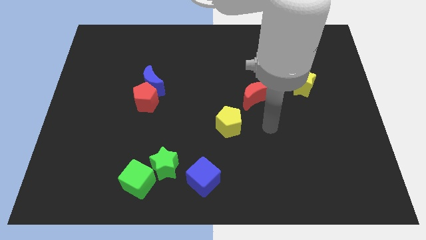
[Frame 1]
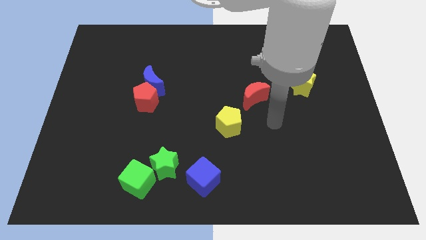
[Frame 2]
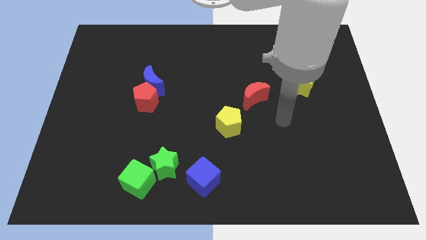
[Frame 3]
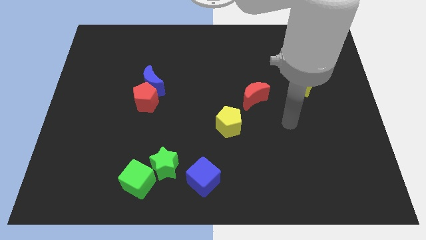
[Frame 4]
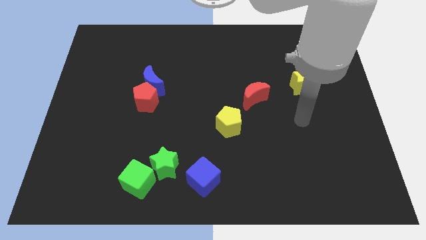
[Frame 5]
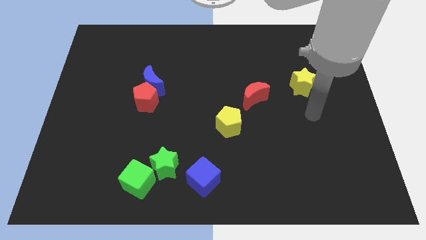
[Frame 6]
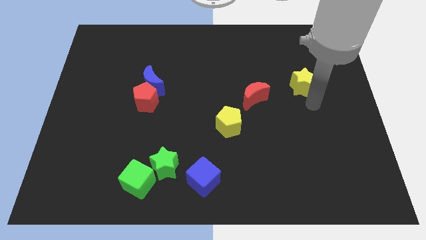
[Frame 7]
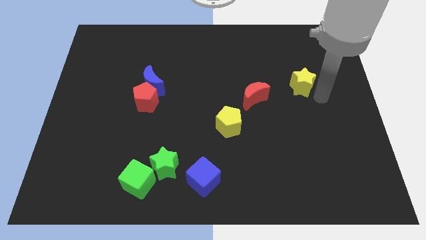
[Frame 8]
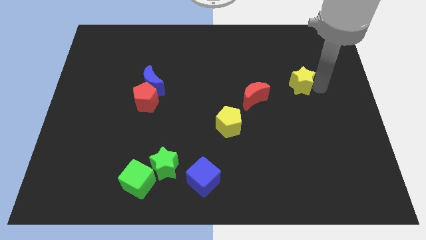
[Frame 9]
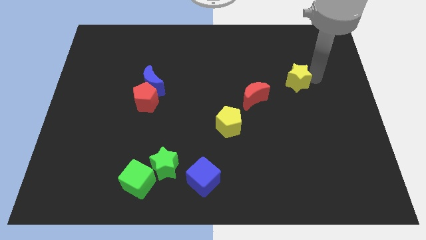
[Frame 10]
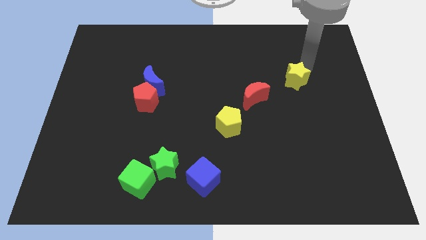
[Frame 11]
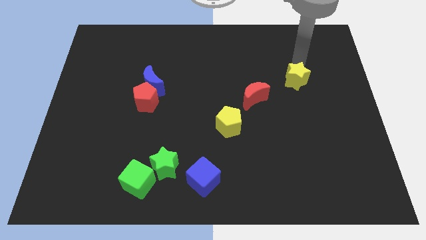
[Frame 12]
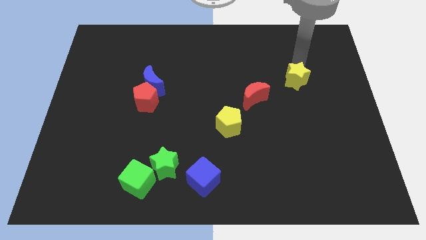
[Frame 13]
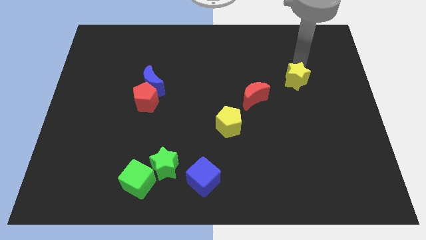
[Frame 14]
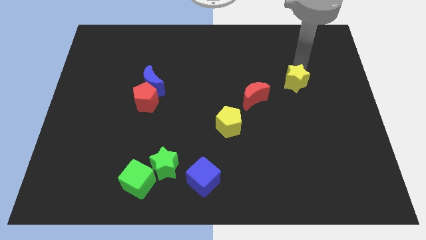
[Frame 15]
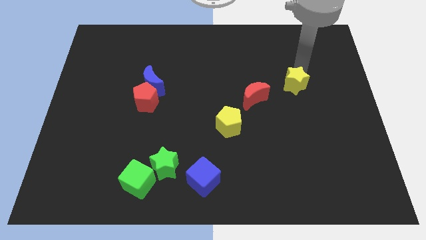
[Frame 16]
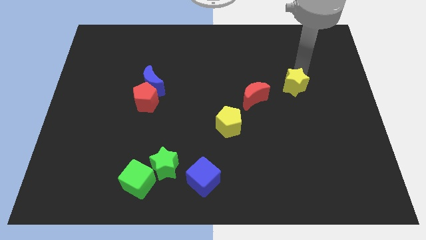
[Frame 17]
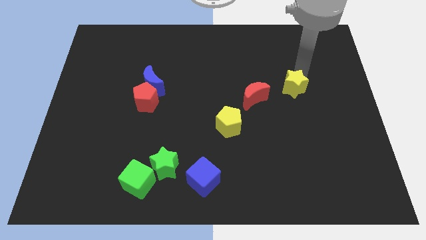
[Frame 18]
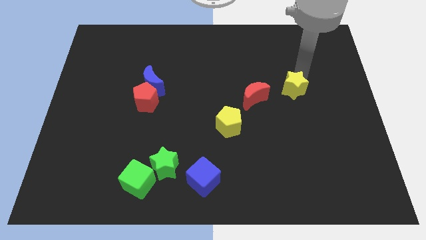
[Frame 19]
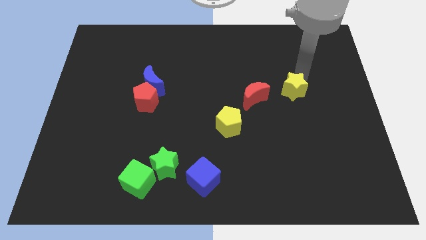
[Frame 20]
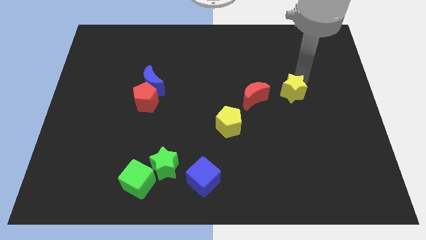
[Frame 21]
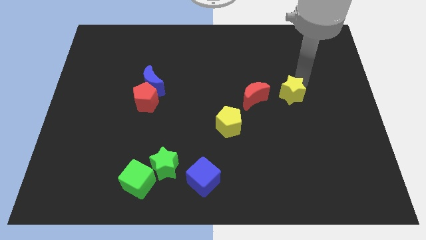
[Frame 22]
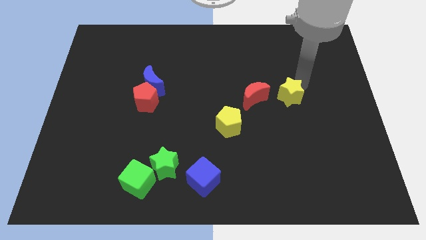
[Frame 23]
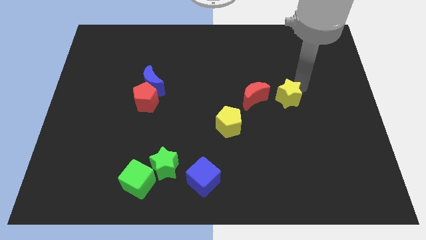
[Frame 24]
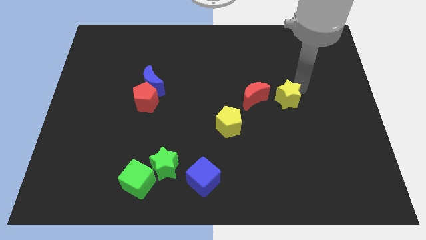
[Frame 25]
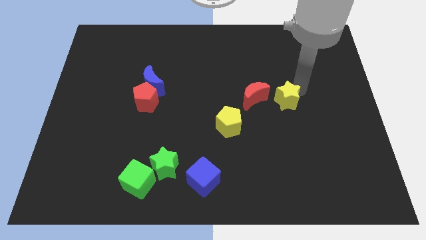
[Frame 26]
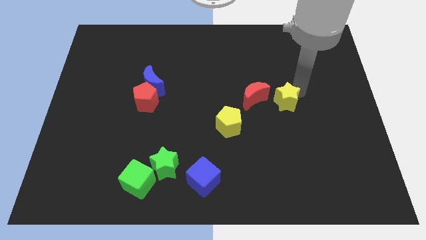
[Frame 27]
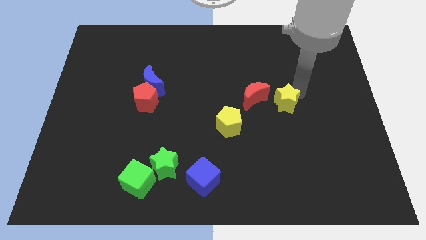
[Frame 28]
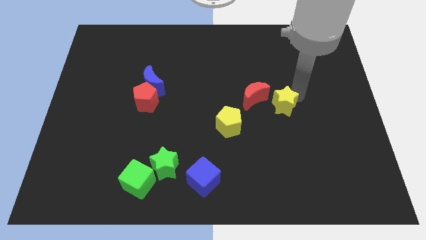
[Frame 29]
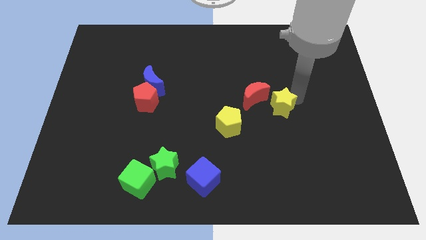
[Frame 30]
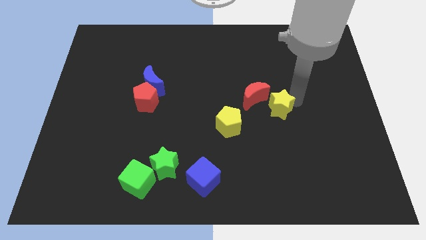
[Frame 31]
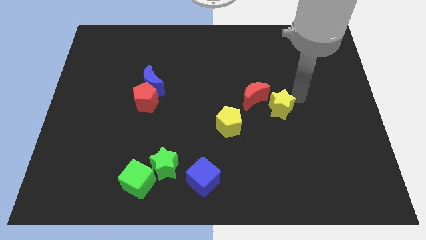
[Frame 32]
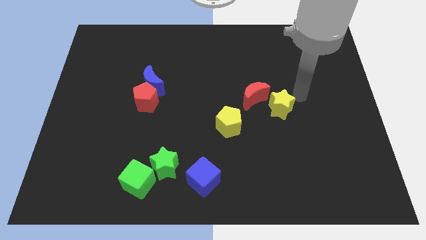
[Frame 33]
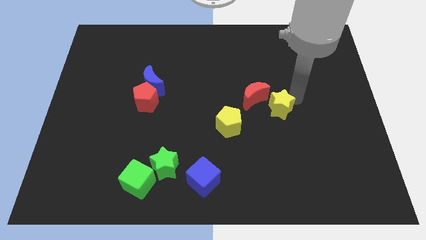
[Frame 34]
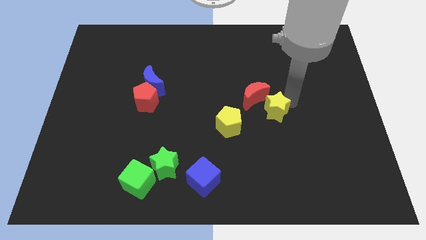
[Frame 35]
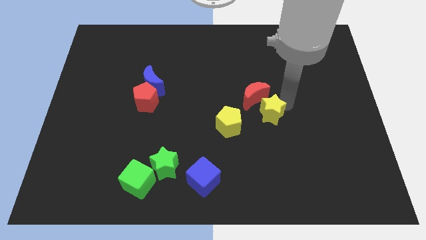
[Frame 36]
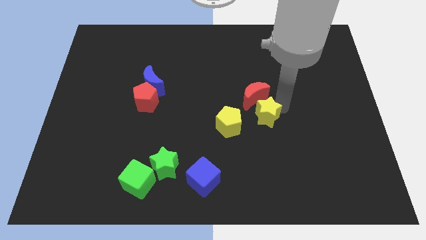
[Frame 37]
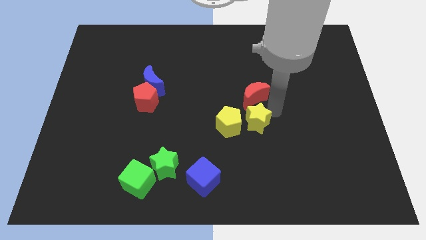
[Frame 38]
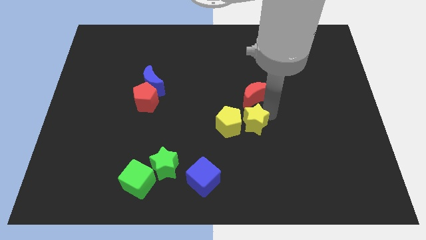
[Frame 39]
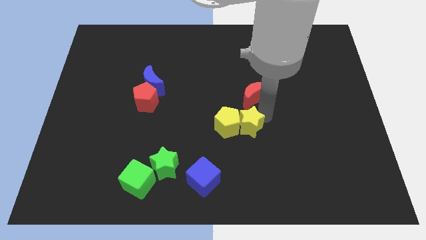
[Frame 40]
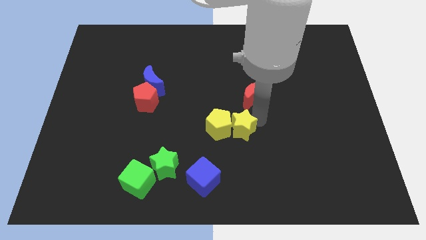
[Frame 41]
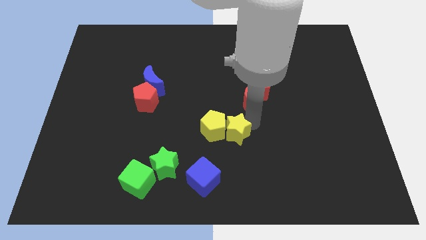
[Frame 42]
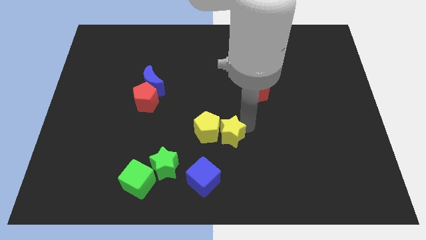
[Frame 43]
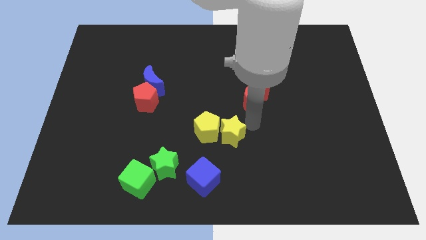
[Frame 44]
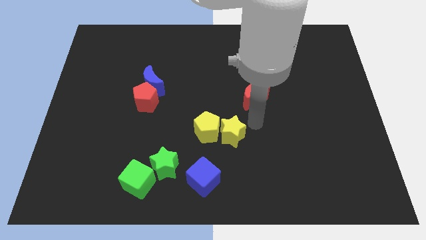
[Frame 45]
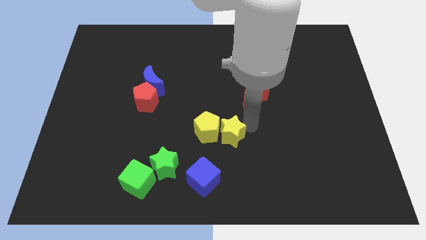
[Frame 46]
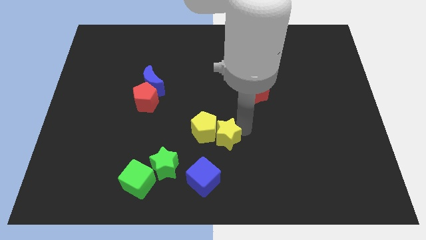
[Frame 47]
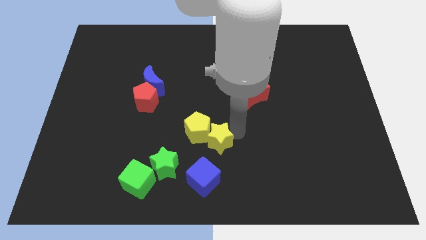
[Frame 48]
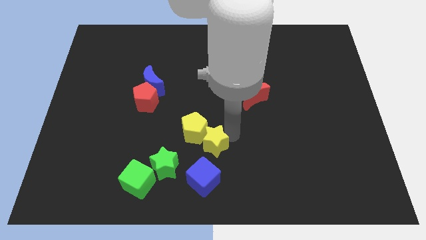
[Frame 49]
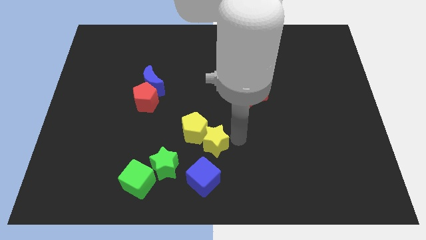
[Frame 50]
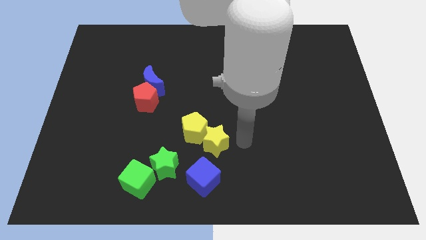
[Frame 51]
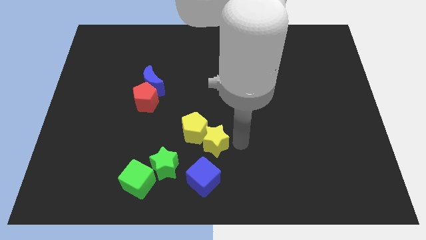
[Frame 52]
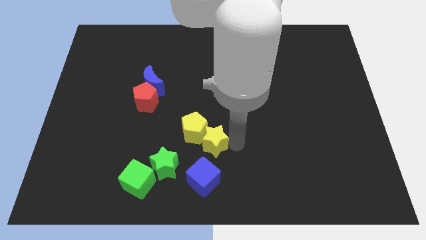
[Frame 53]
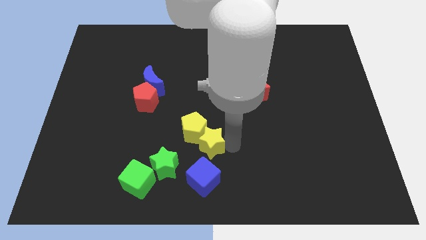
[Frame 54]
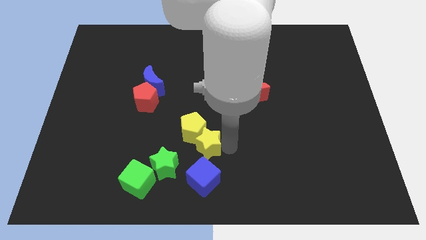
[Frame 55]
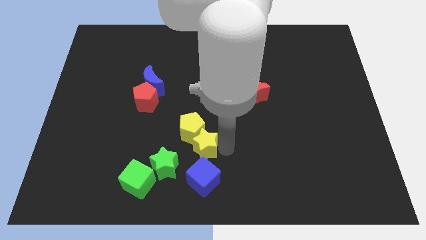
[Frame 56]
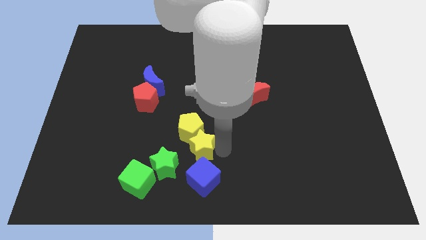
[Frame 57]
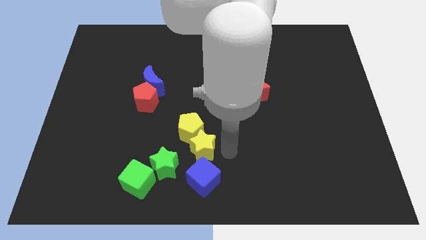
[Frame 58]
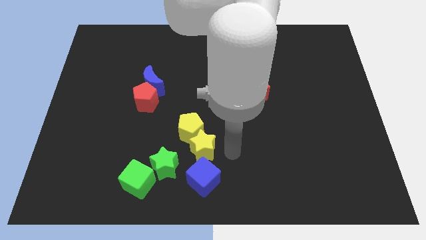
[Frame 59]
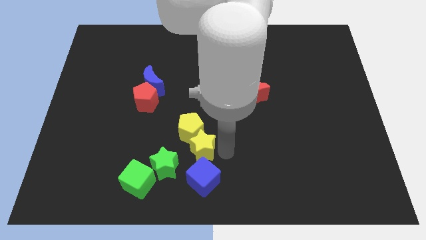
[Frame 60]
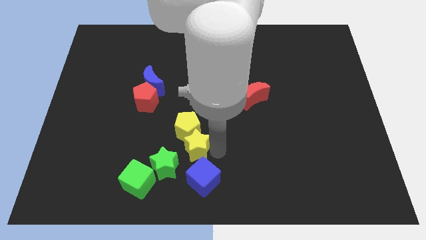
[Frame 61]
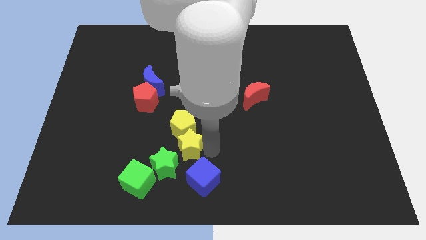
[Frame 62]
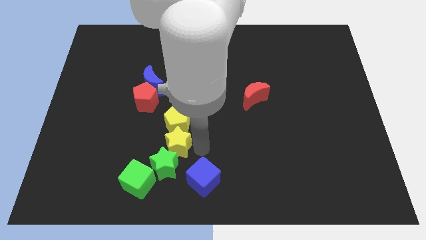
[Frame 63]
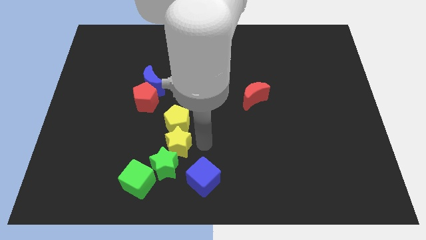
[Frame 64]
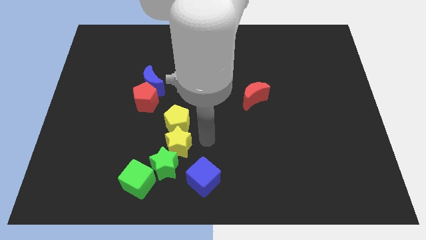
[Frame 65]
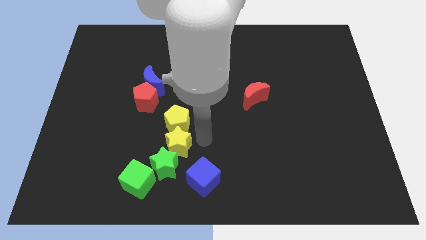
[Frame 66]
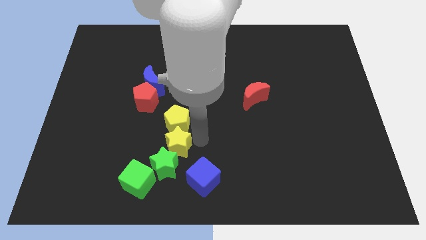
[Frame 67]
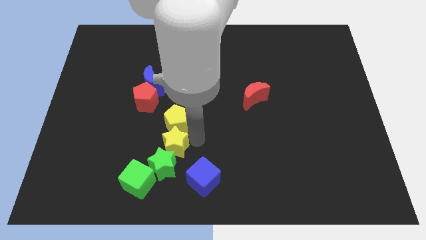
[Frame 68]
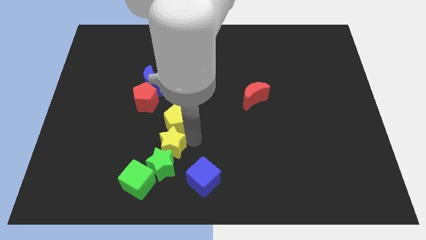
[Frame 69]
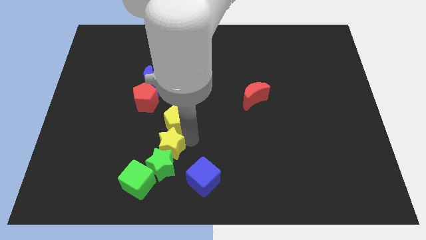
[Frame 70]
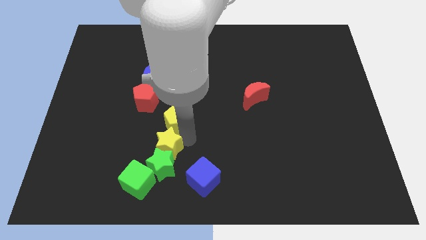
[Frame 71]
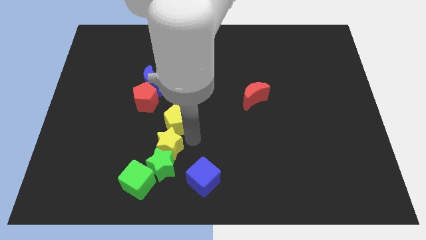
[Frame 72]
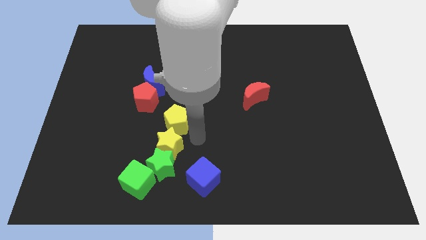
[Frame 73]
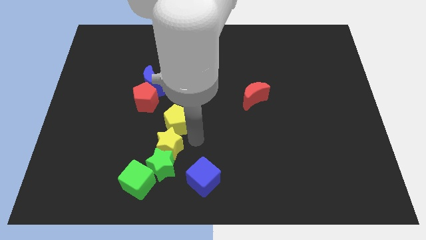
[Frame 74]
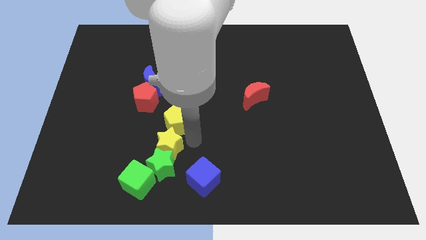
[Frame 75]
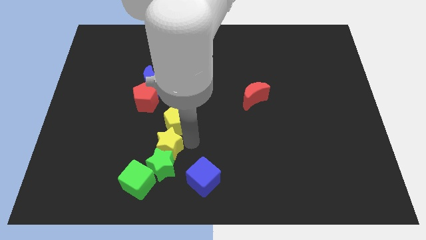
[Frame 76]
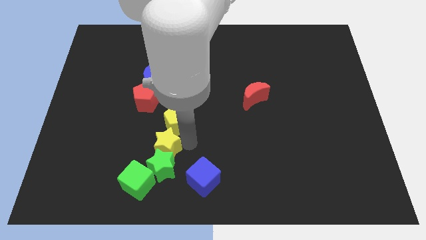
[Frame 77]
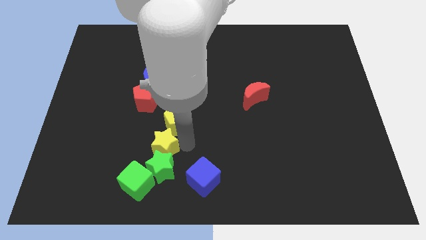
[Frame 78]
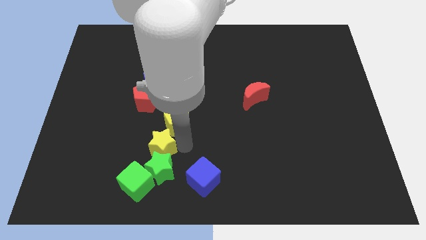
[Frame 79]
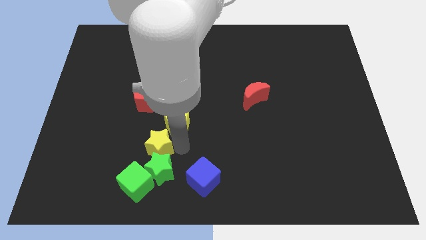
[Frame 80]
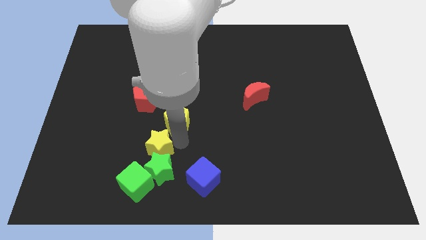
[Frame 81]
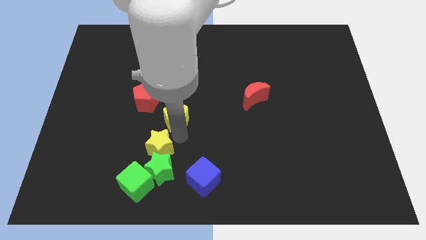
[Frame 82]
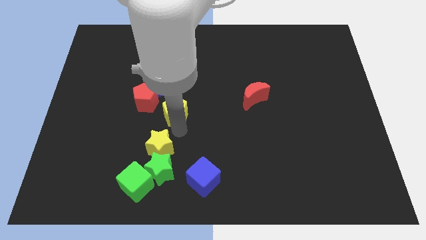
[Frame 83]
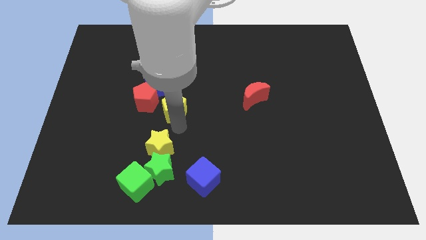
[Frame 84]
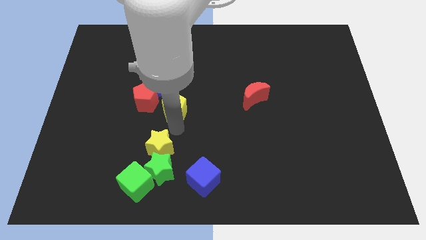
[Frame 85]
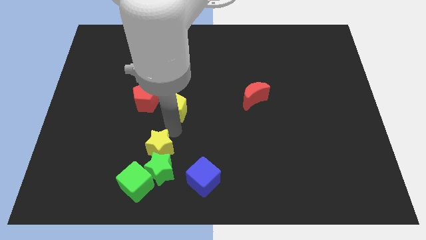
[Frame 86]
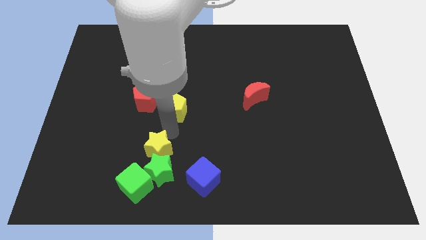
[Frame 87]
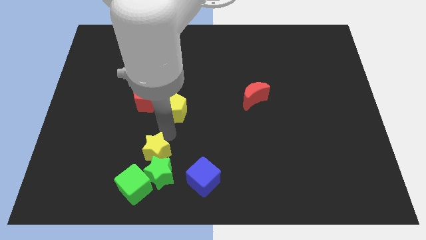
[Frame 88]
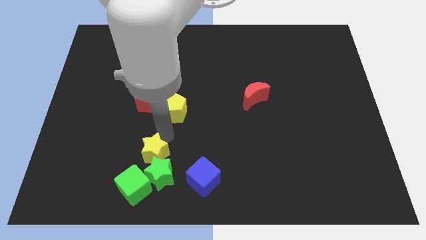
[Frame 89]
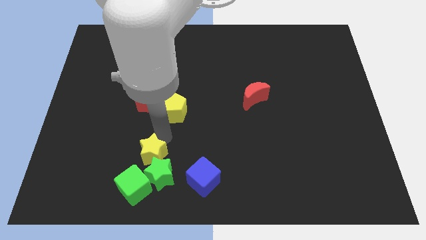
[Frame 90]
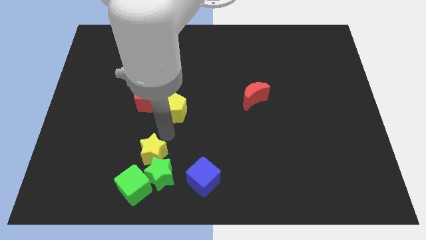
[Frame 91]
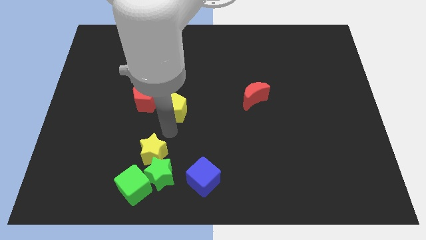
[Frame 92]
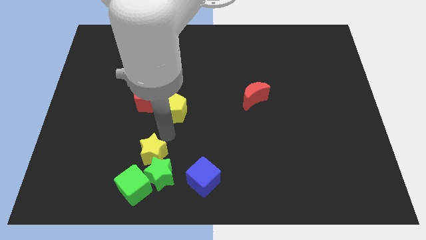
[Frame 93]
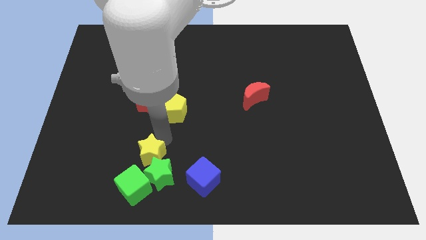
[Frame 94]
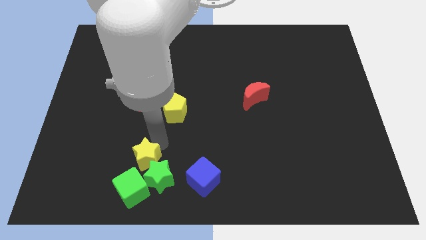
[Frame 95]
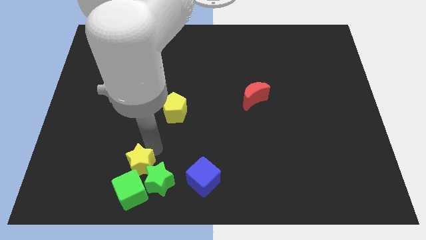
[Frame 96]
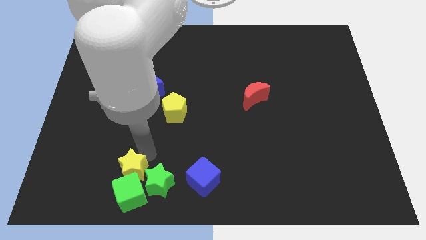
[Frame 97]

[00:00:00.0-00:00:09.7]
push the yellow star to the green cube
